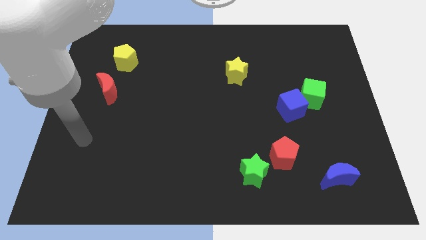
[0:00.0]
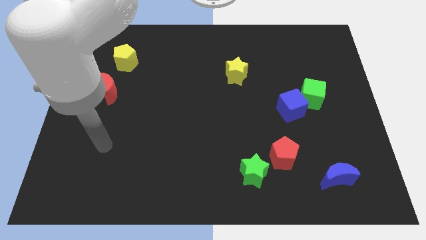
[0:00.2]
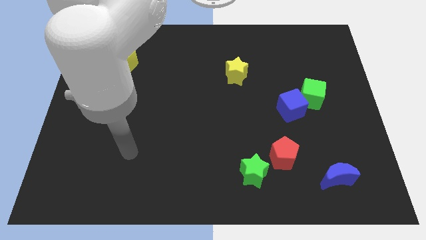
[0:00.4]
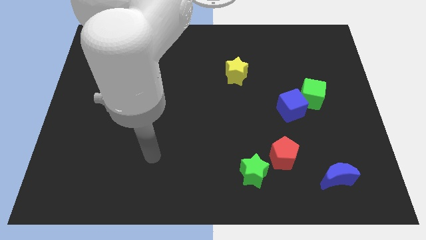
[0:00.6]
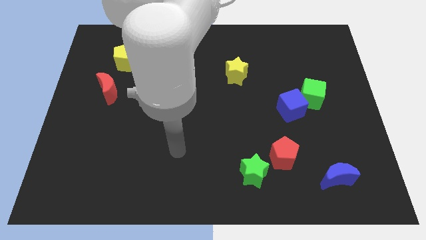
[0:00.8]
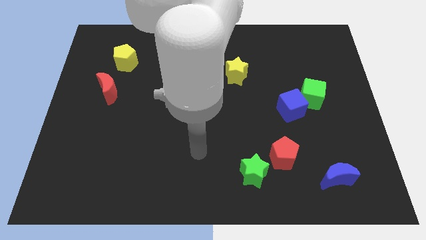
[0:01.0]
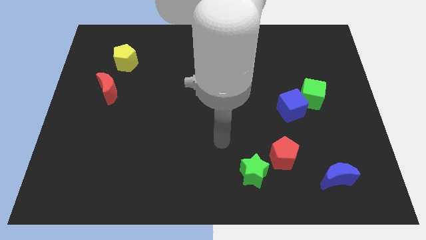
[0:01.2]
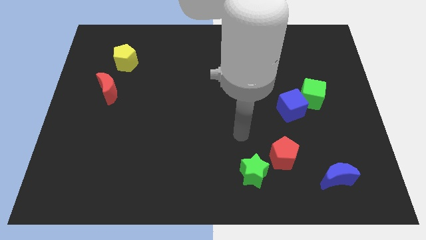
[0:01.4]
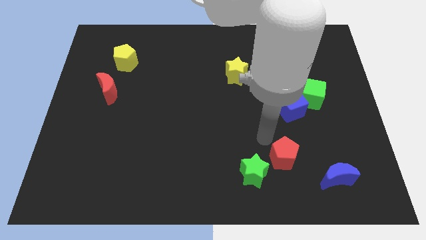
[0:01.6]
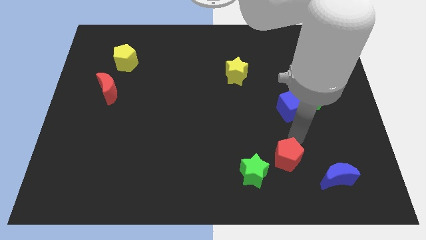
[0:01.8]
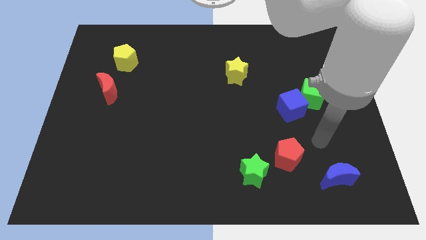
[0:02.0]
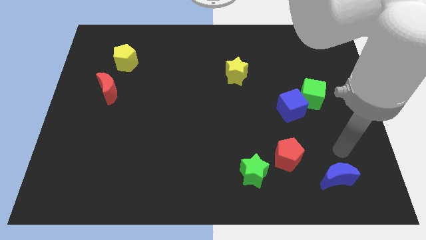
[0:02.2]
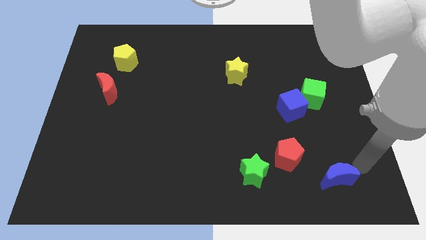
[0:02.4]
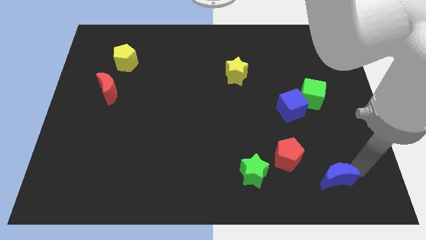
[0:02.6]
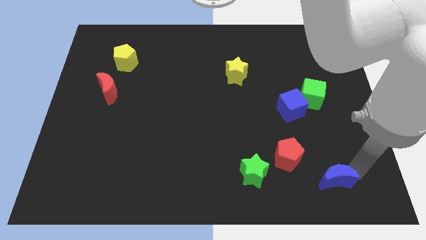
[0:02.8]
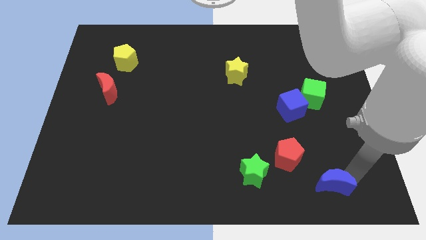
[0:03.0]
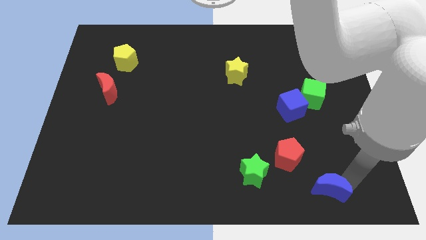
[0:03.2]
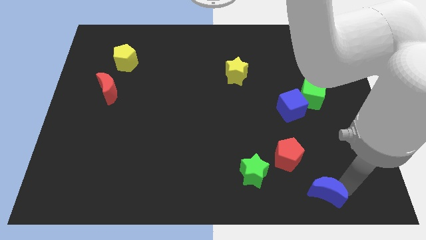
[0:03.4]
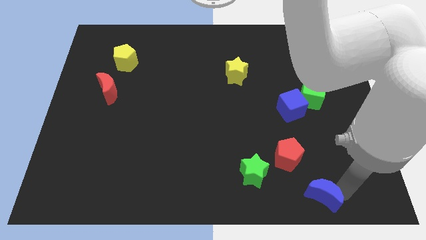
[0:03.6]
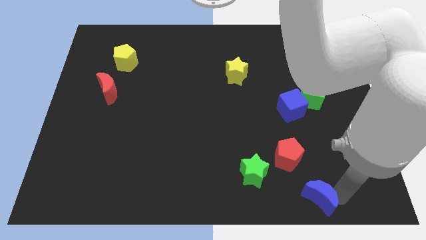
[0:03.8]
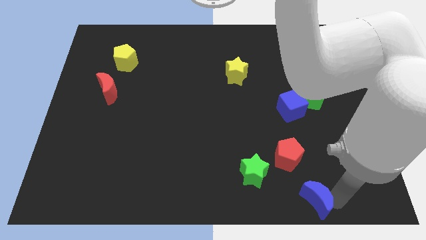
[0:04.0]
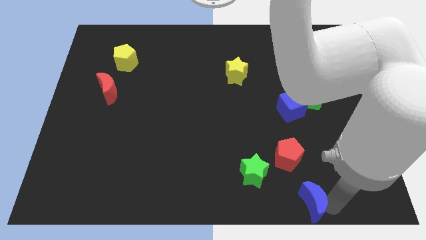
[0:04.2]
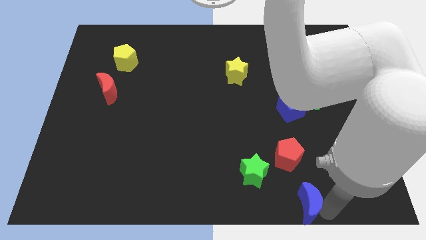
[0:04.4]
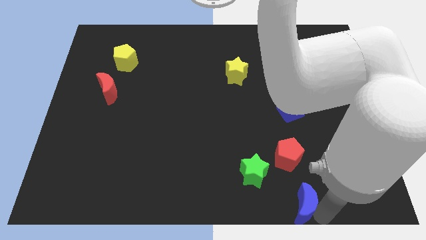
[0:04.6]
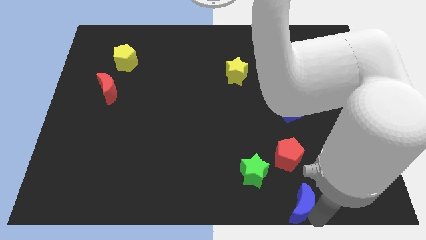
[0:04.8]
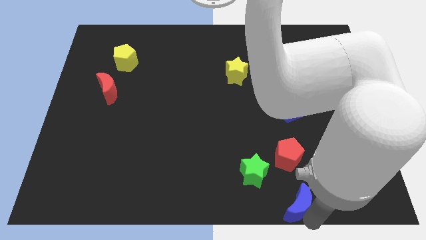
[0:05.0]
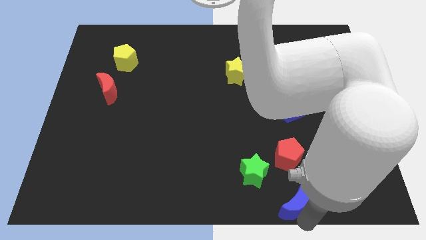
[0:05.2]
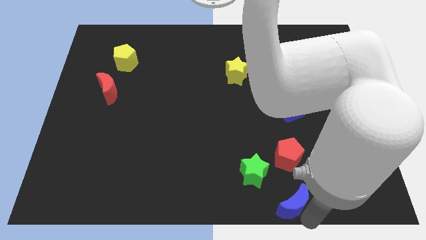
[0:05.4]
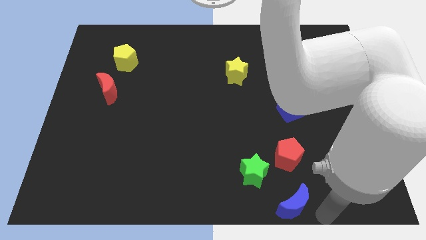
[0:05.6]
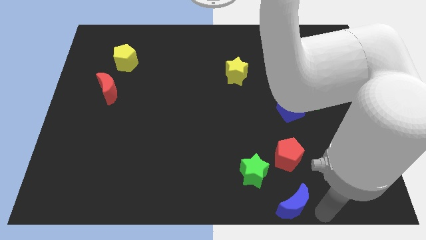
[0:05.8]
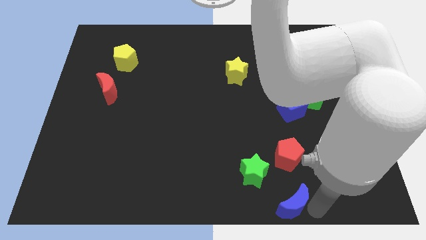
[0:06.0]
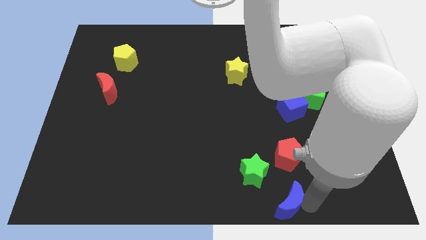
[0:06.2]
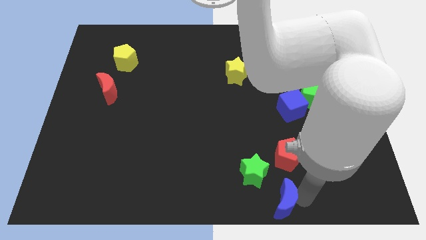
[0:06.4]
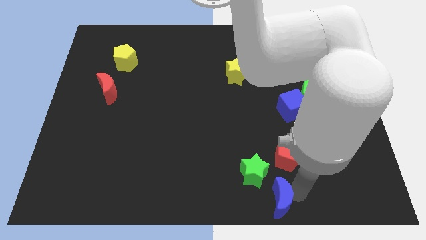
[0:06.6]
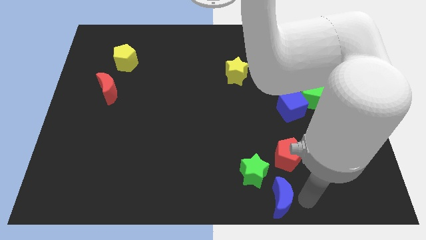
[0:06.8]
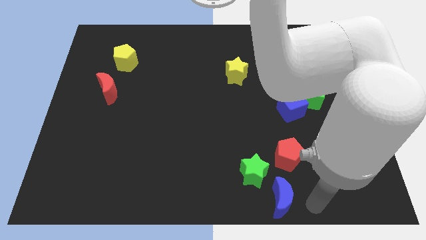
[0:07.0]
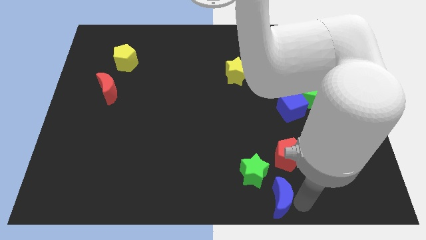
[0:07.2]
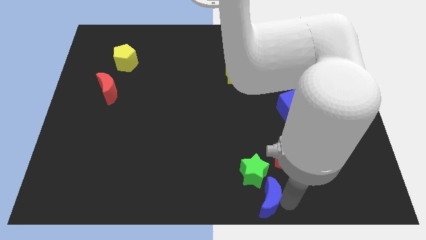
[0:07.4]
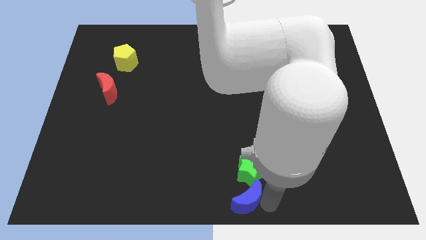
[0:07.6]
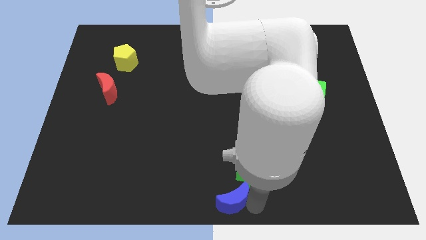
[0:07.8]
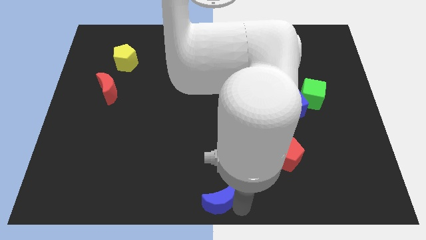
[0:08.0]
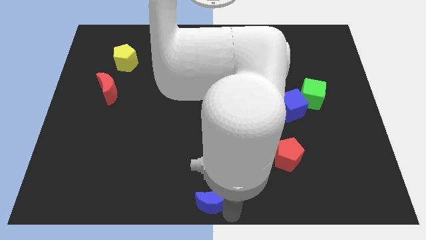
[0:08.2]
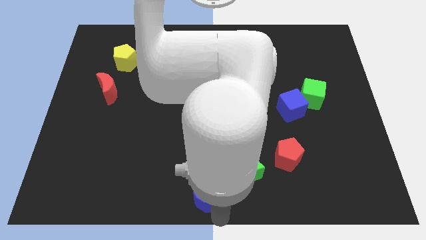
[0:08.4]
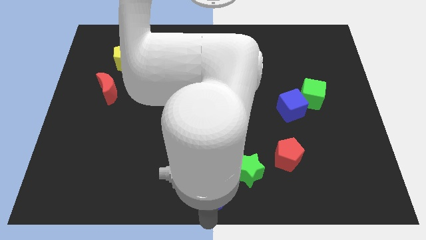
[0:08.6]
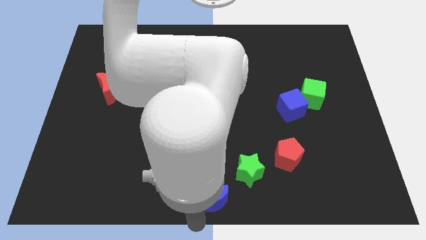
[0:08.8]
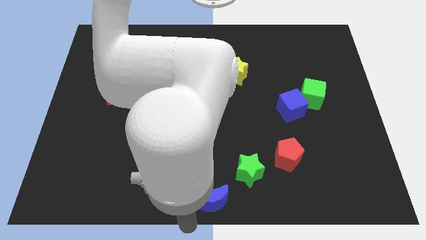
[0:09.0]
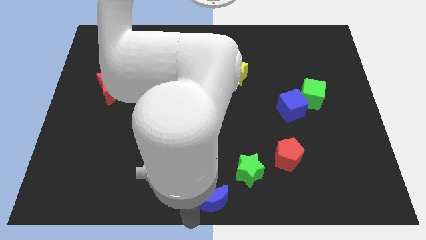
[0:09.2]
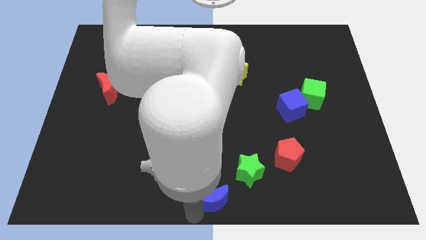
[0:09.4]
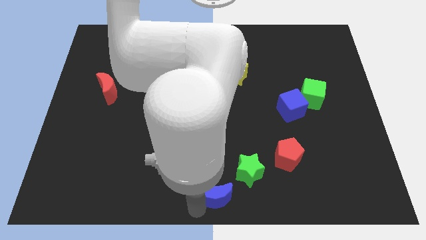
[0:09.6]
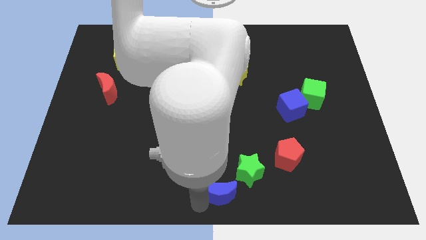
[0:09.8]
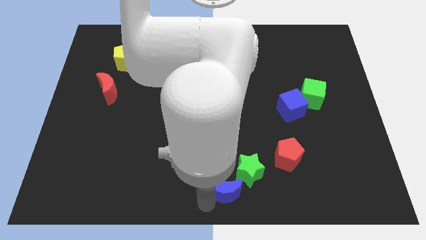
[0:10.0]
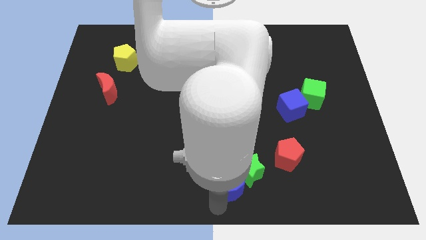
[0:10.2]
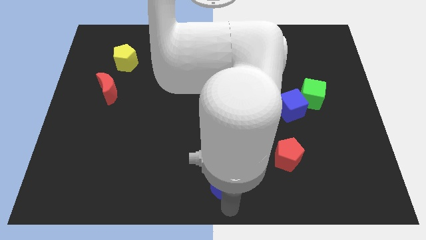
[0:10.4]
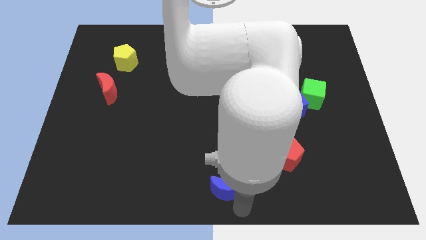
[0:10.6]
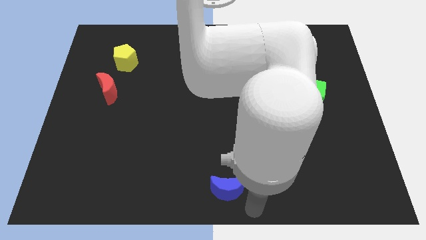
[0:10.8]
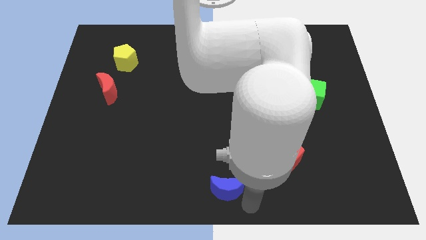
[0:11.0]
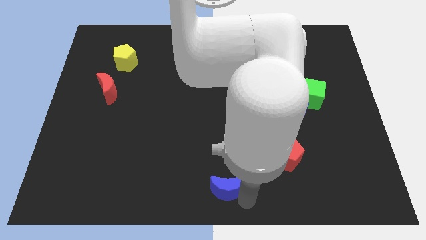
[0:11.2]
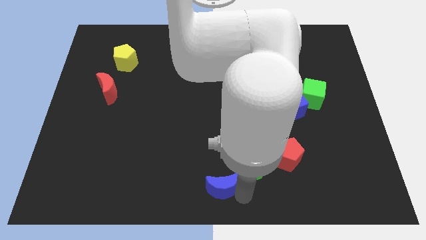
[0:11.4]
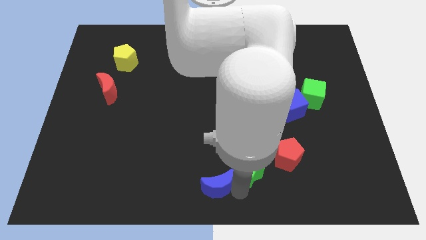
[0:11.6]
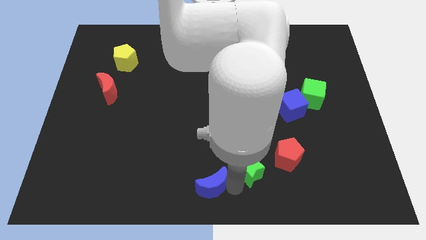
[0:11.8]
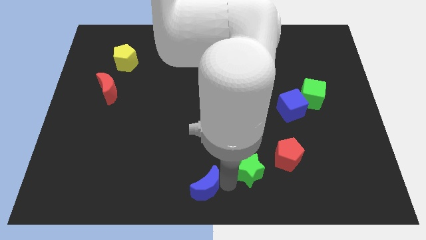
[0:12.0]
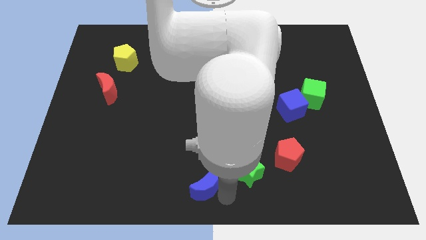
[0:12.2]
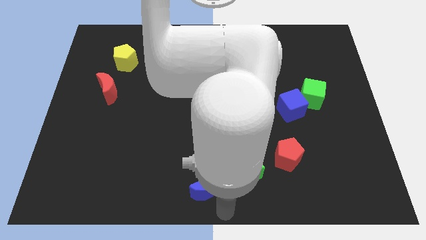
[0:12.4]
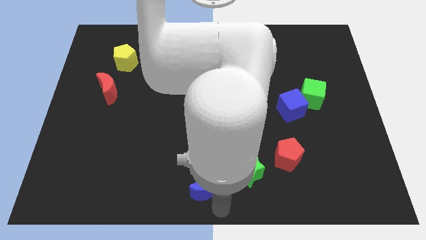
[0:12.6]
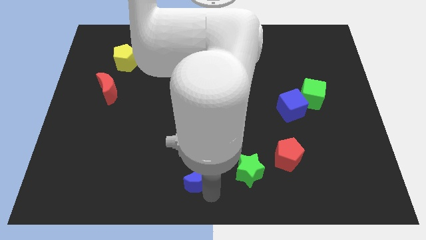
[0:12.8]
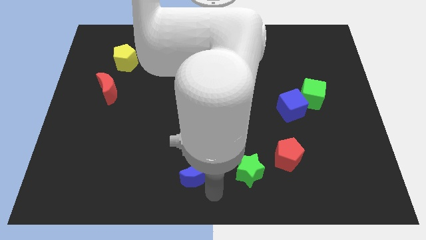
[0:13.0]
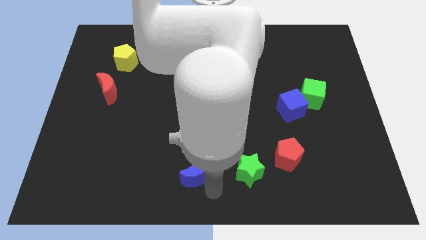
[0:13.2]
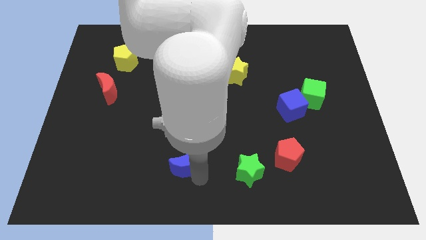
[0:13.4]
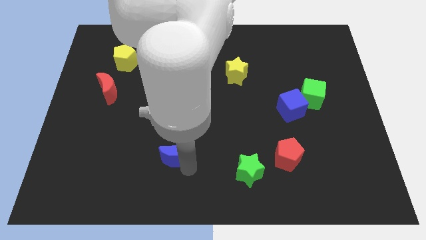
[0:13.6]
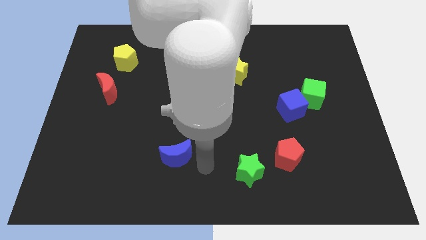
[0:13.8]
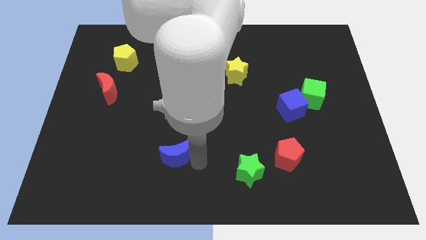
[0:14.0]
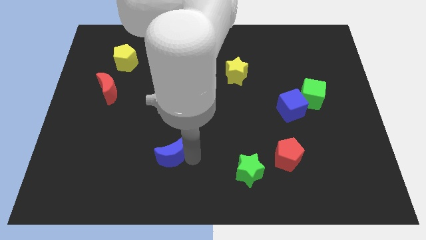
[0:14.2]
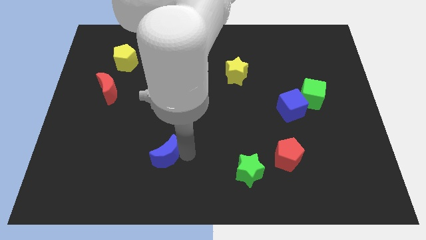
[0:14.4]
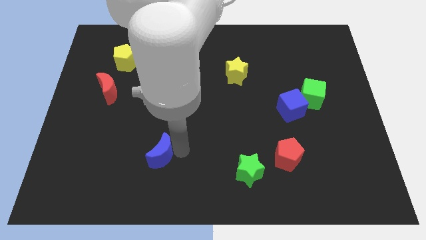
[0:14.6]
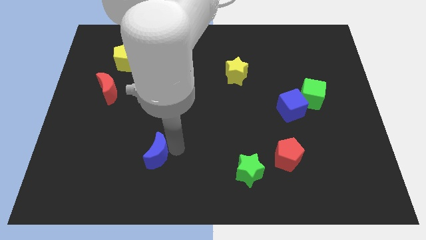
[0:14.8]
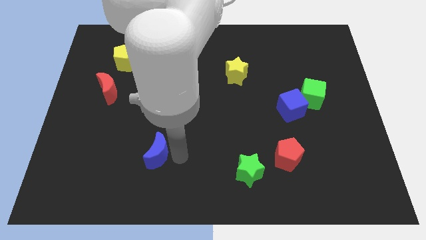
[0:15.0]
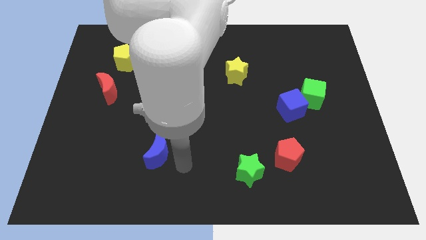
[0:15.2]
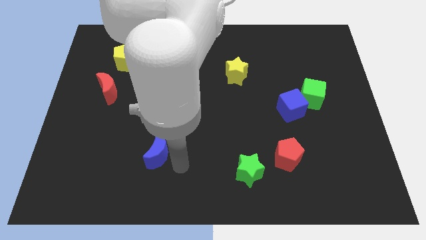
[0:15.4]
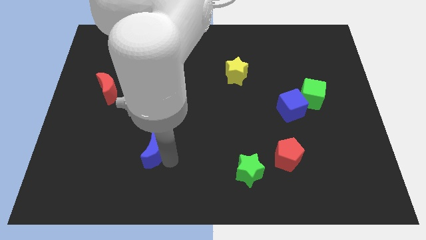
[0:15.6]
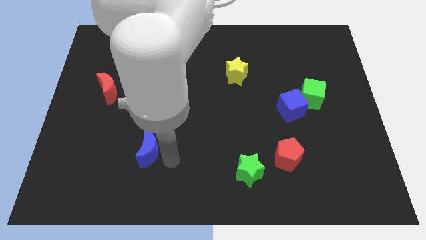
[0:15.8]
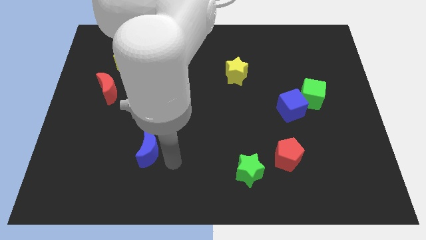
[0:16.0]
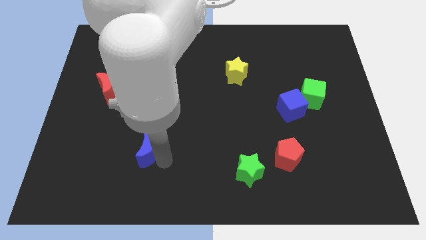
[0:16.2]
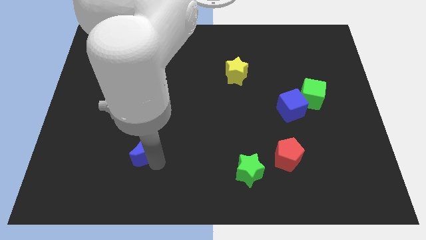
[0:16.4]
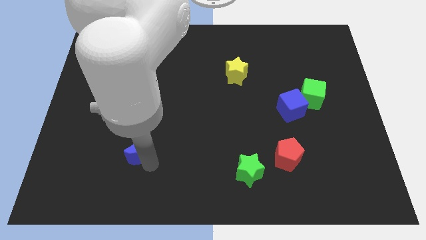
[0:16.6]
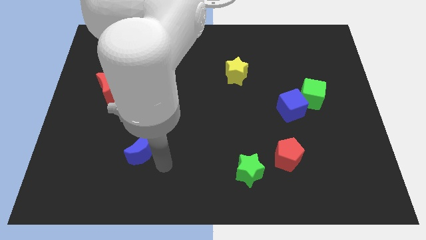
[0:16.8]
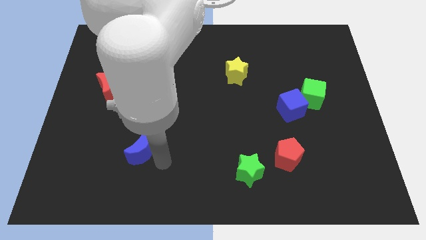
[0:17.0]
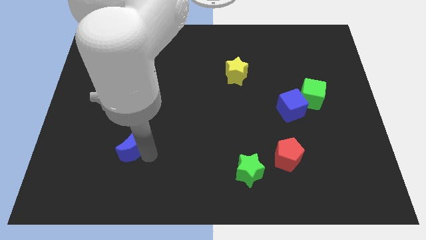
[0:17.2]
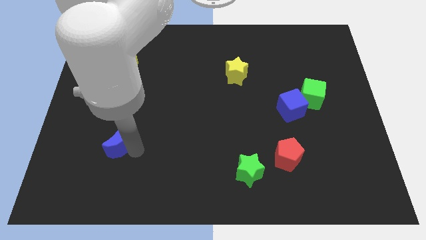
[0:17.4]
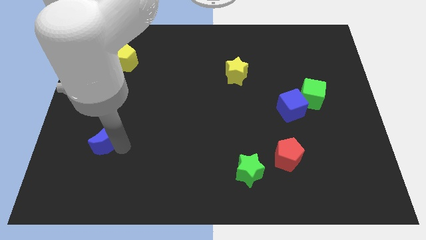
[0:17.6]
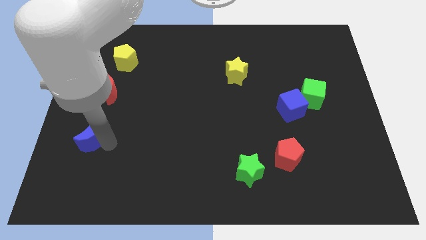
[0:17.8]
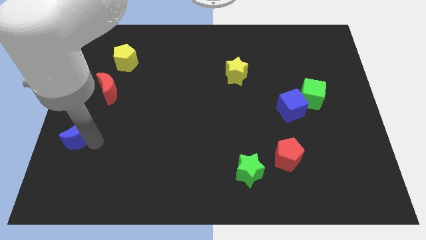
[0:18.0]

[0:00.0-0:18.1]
move the blue moon to the left side
